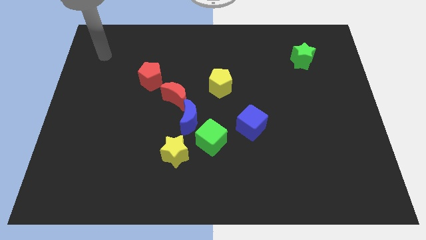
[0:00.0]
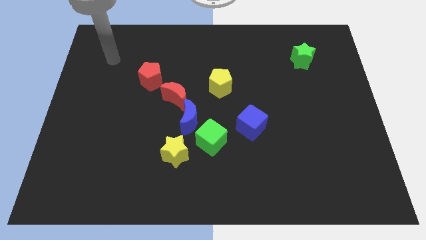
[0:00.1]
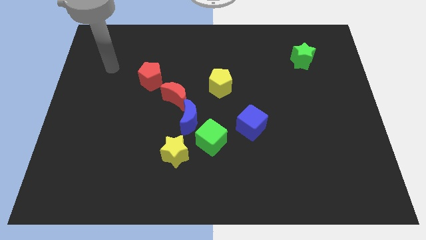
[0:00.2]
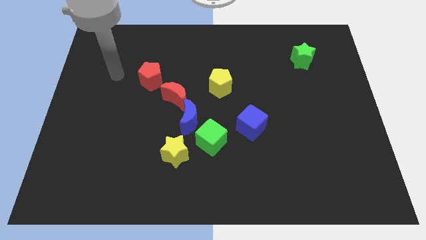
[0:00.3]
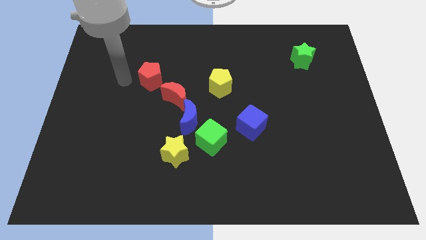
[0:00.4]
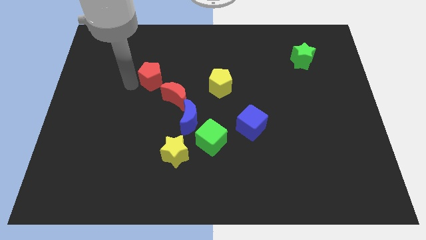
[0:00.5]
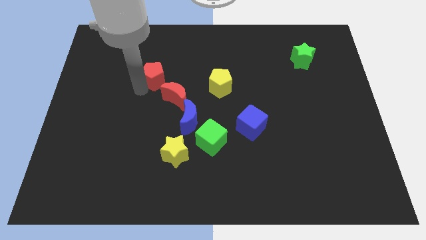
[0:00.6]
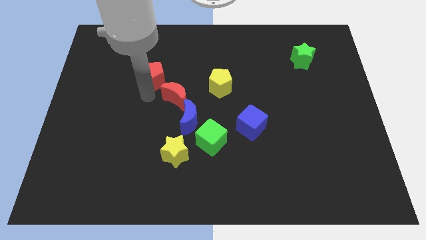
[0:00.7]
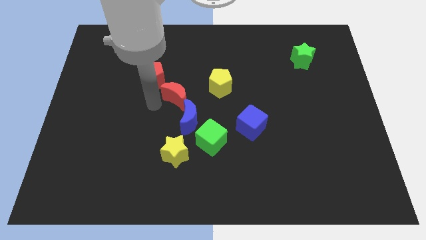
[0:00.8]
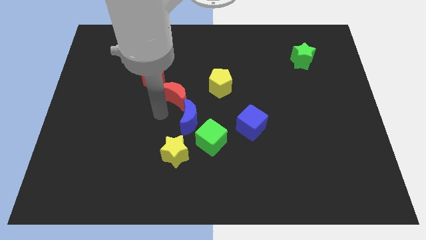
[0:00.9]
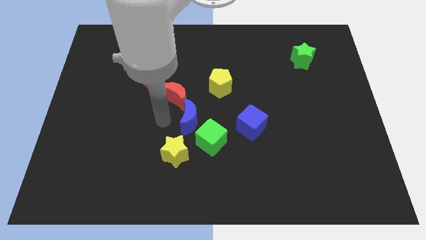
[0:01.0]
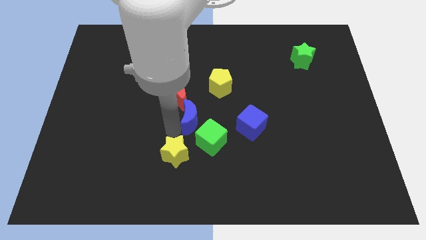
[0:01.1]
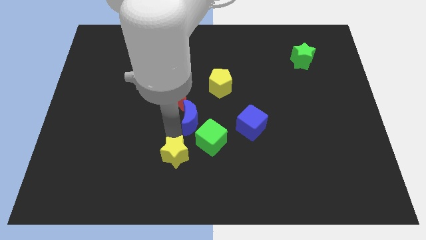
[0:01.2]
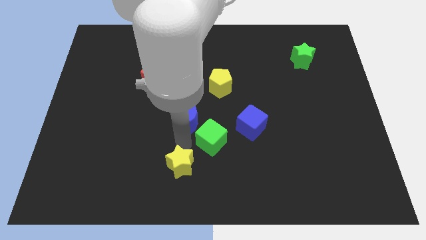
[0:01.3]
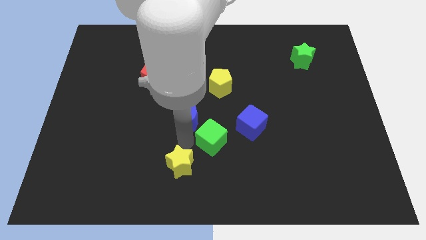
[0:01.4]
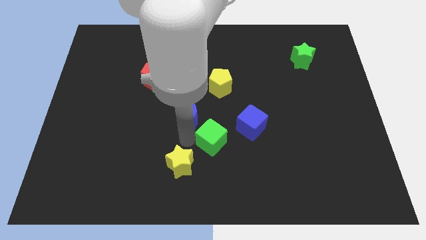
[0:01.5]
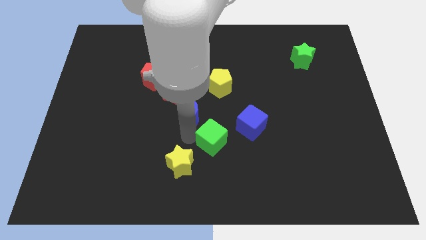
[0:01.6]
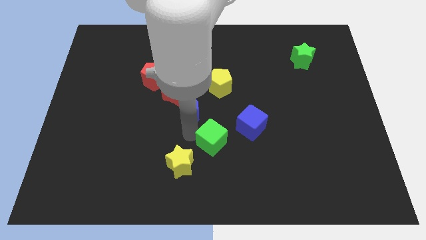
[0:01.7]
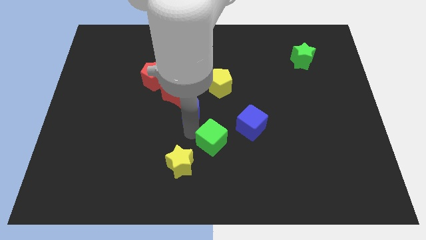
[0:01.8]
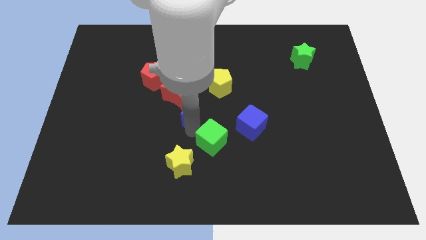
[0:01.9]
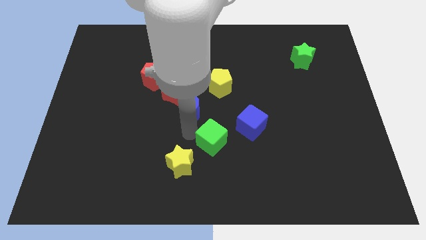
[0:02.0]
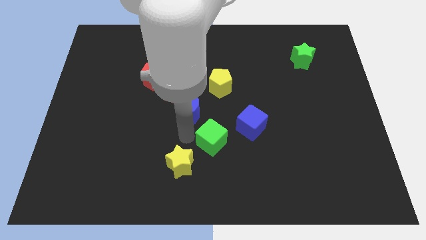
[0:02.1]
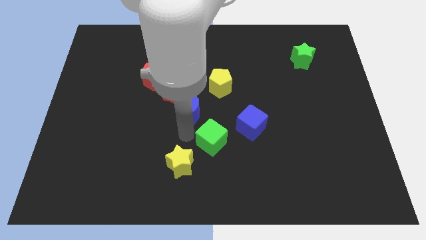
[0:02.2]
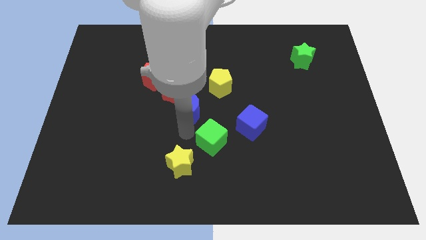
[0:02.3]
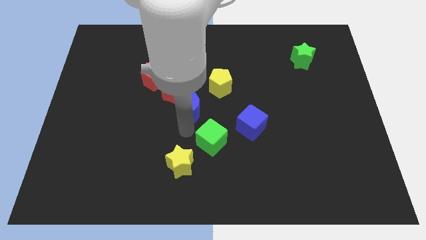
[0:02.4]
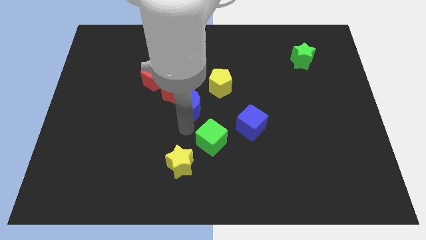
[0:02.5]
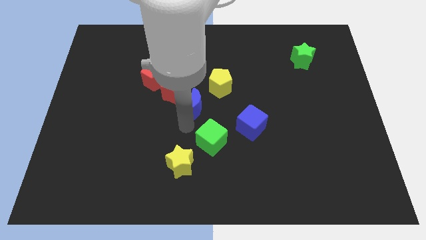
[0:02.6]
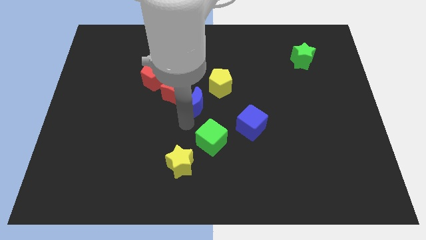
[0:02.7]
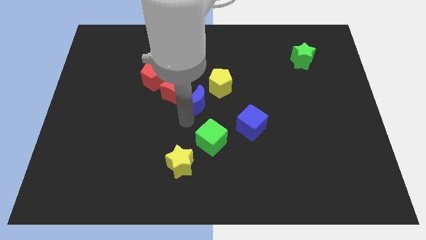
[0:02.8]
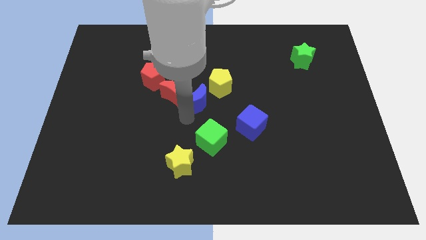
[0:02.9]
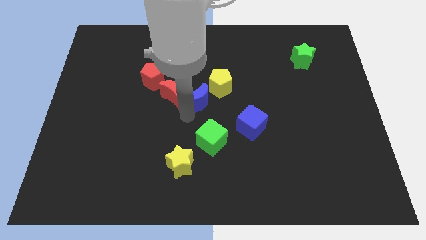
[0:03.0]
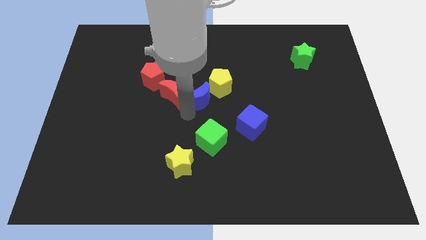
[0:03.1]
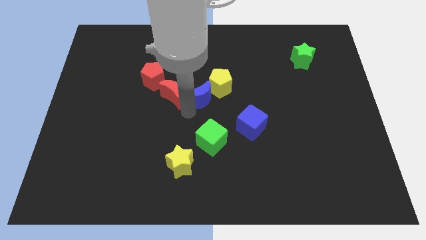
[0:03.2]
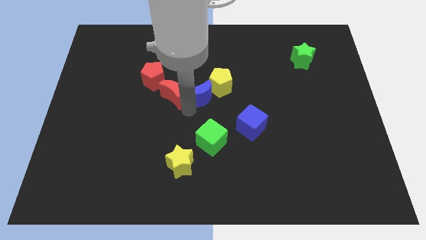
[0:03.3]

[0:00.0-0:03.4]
separate the blue moon from the group

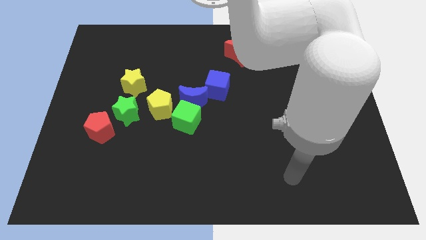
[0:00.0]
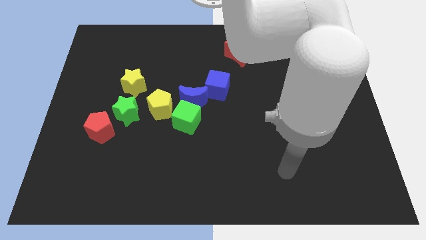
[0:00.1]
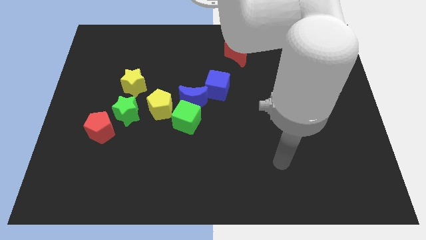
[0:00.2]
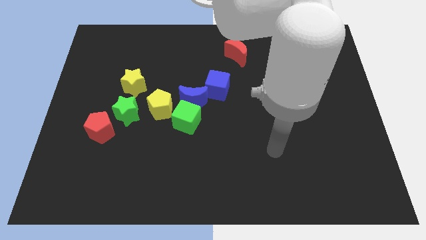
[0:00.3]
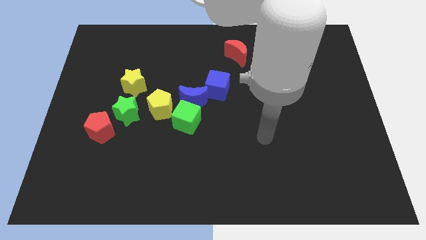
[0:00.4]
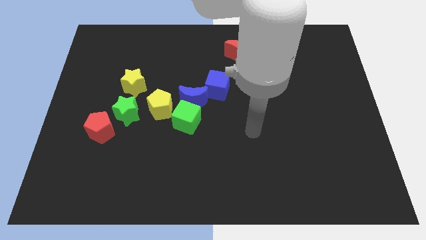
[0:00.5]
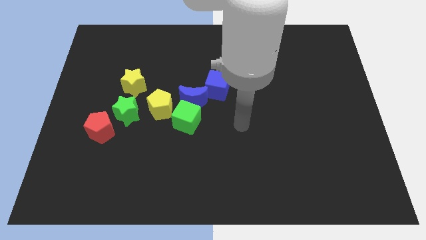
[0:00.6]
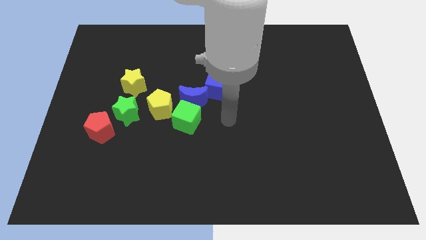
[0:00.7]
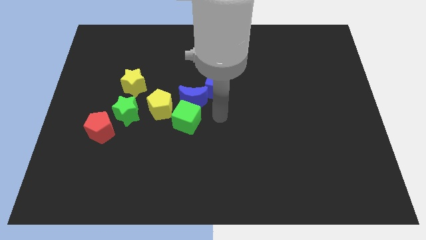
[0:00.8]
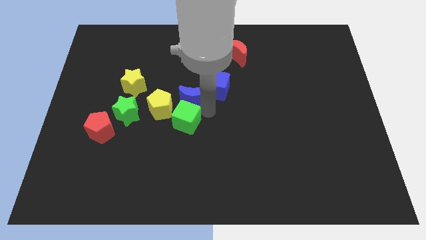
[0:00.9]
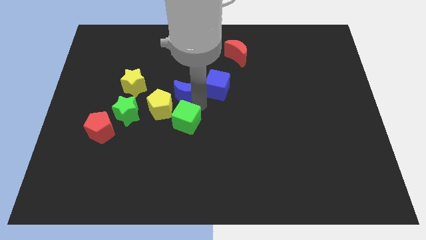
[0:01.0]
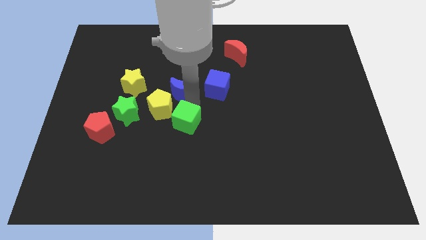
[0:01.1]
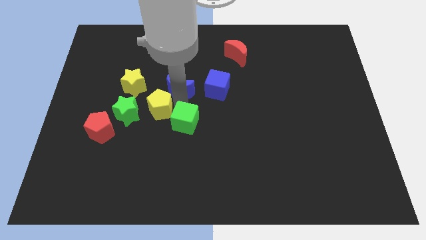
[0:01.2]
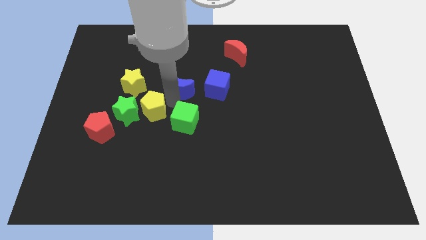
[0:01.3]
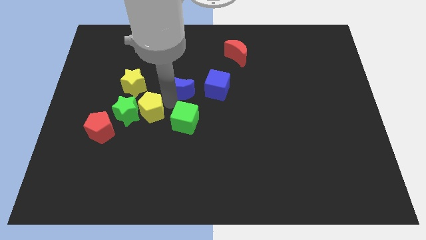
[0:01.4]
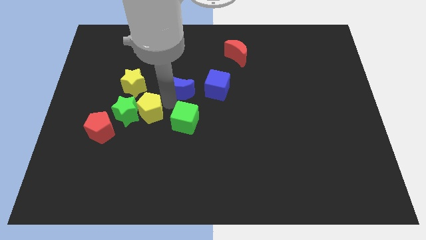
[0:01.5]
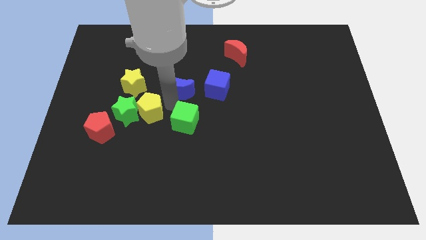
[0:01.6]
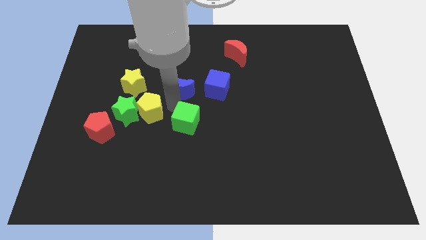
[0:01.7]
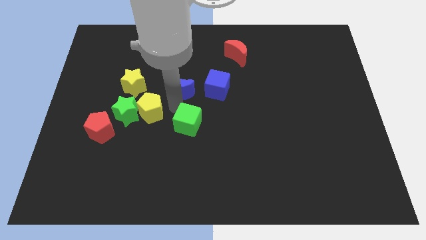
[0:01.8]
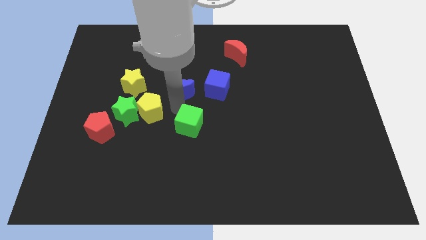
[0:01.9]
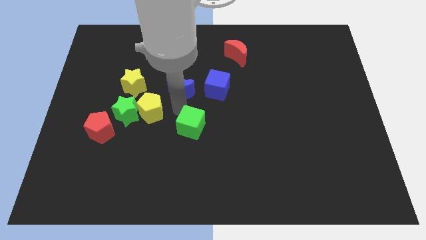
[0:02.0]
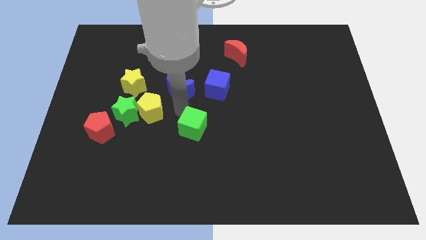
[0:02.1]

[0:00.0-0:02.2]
pull the green cube apart from the blue moon and yellow pentagon

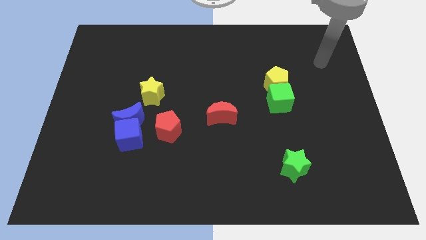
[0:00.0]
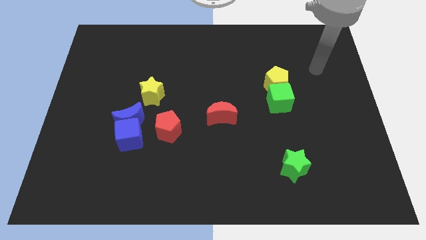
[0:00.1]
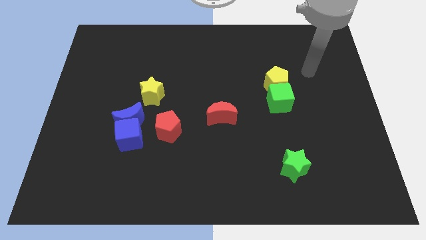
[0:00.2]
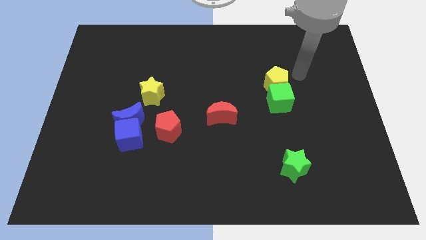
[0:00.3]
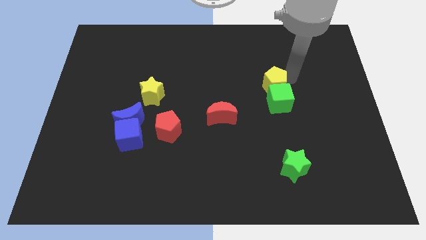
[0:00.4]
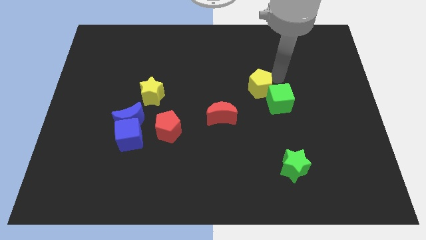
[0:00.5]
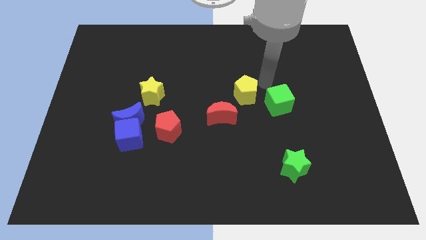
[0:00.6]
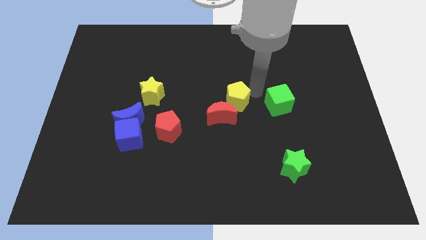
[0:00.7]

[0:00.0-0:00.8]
pull the green cube apart from the yellow pentagon

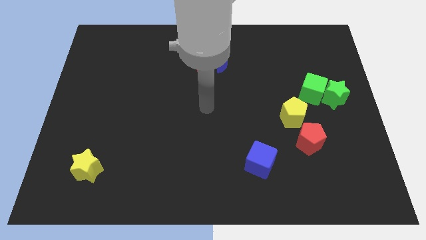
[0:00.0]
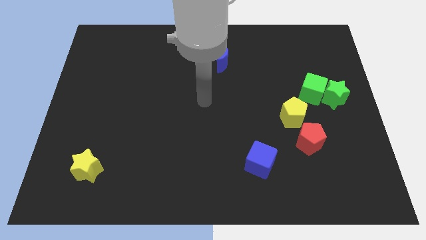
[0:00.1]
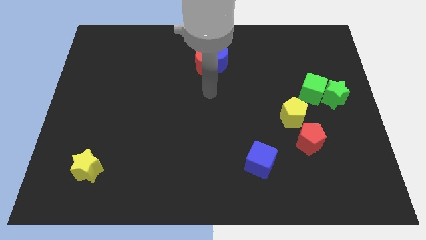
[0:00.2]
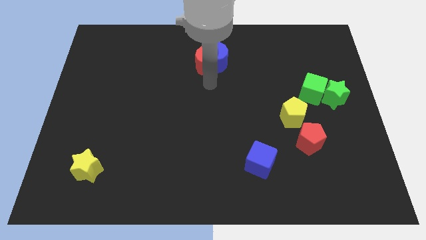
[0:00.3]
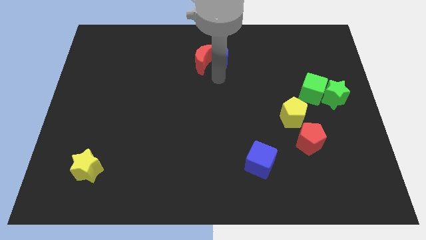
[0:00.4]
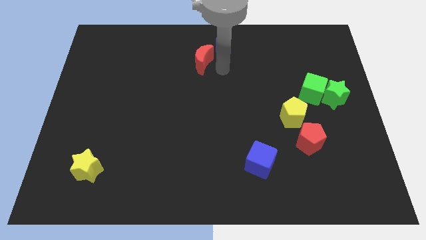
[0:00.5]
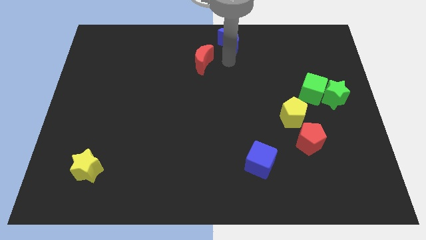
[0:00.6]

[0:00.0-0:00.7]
separate the red moon from the blue moon

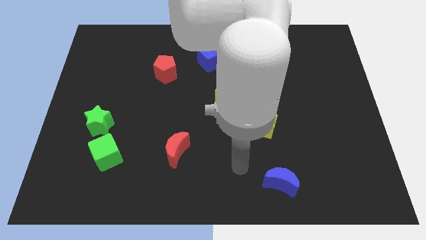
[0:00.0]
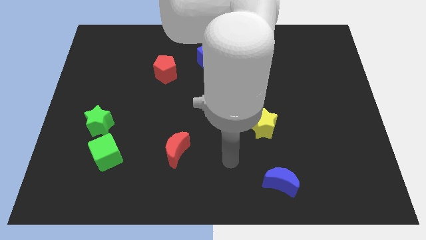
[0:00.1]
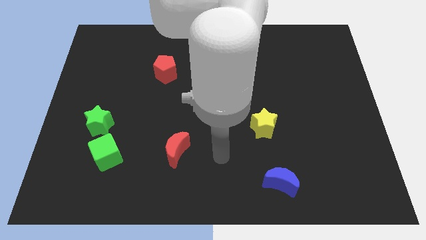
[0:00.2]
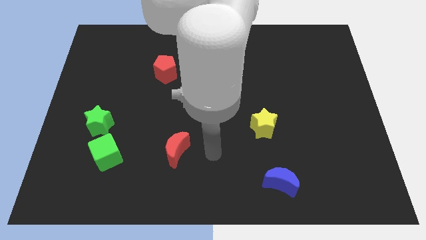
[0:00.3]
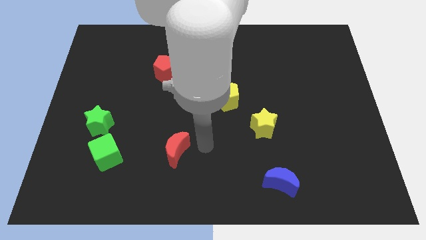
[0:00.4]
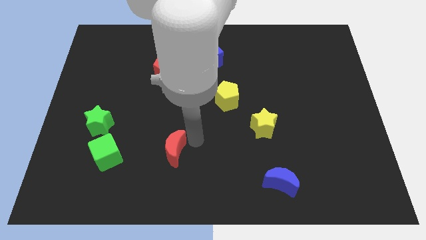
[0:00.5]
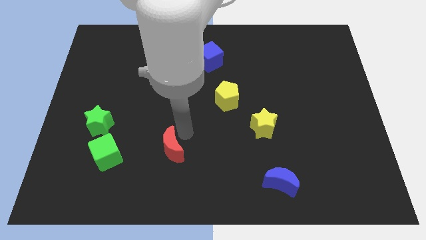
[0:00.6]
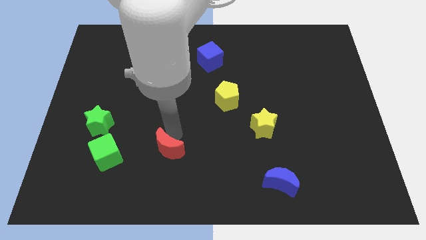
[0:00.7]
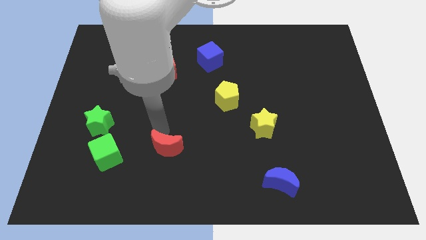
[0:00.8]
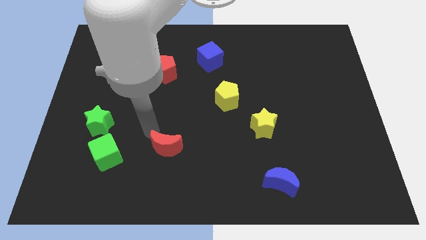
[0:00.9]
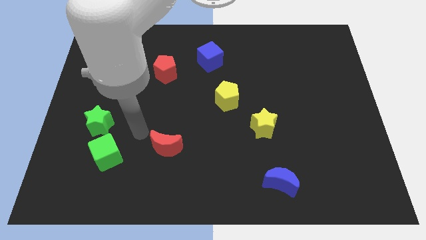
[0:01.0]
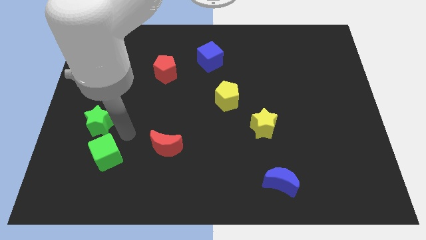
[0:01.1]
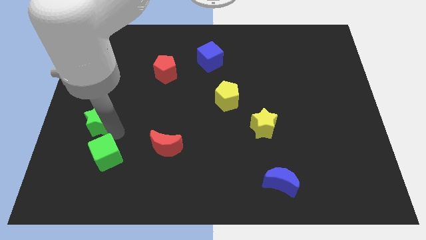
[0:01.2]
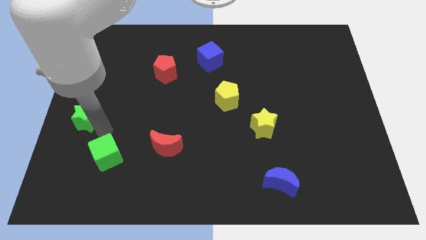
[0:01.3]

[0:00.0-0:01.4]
pull the green cube apart from the green star

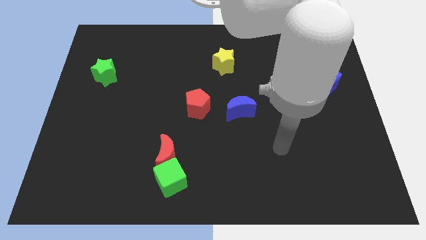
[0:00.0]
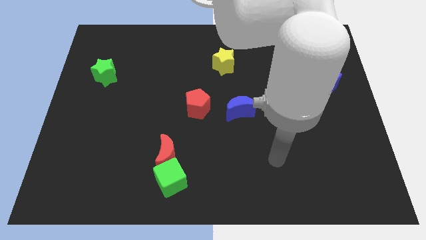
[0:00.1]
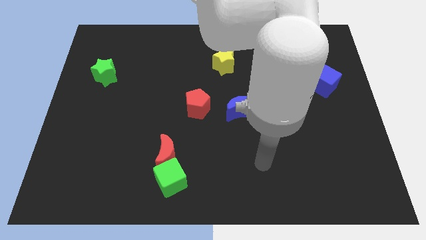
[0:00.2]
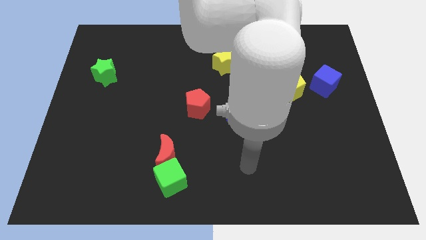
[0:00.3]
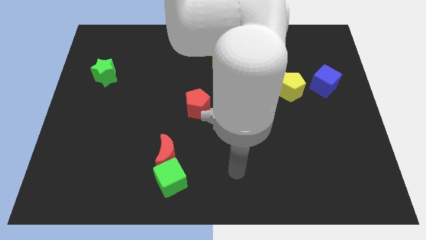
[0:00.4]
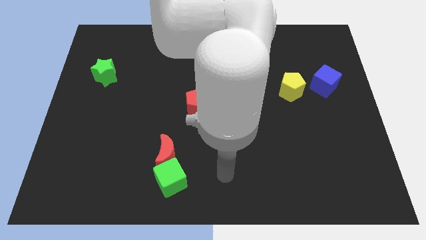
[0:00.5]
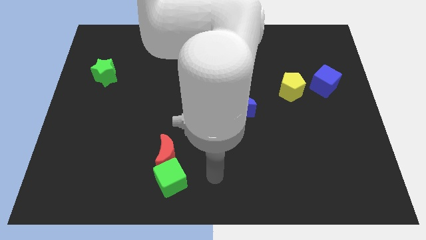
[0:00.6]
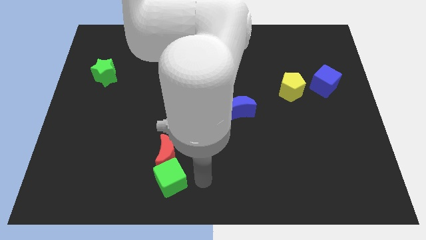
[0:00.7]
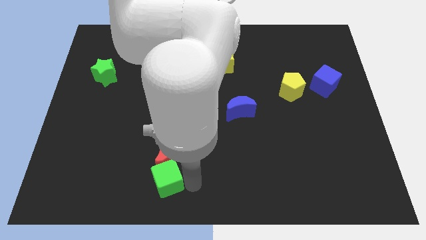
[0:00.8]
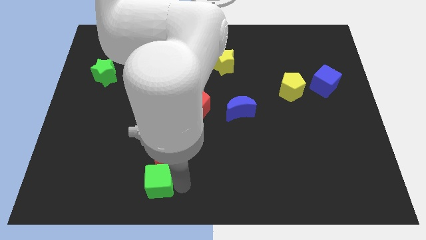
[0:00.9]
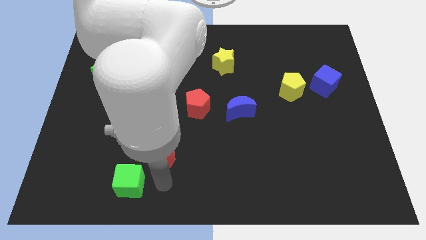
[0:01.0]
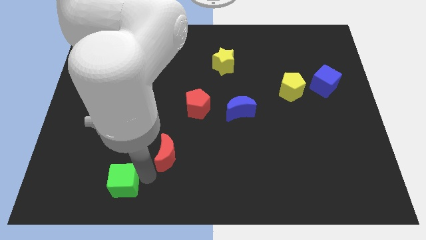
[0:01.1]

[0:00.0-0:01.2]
pull the red moon apart from the green cube
